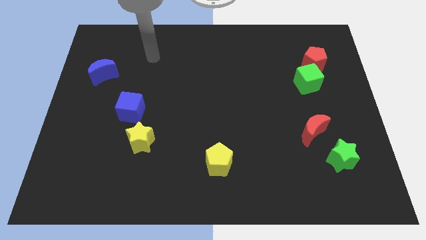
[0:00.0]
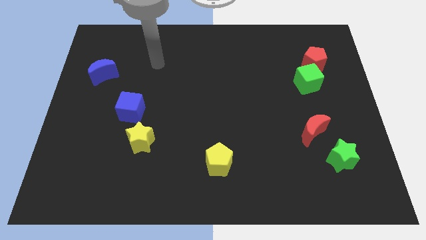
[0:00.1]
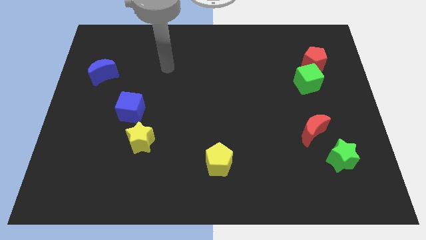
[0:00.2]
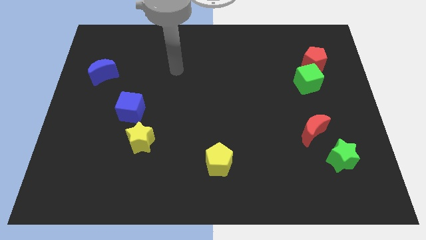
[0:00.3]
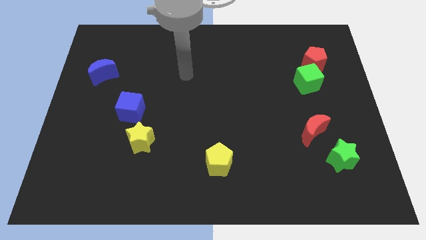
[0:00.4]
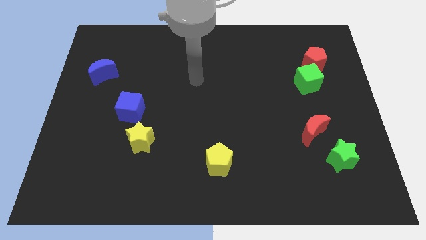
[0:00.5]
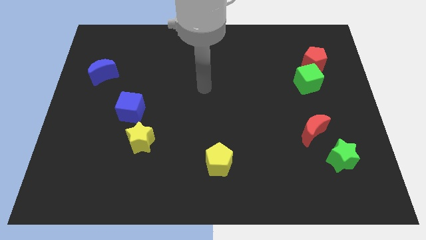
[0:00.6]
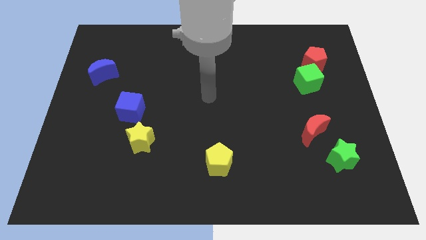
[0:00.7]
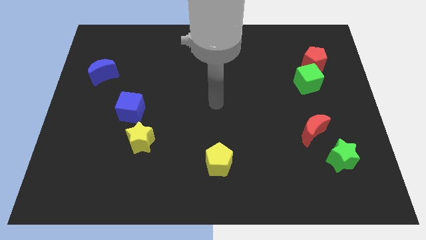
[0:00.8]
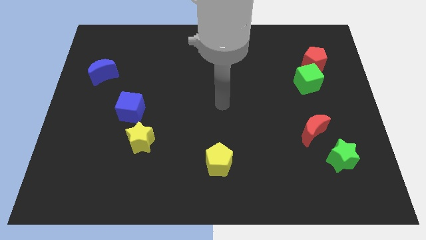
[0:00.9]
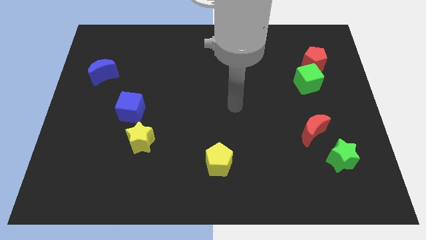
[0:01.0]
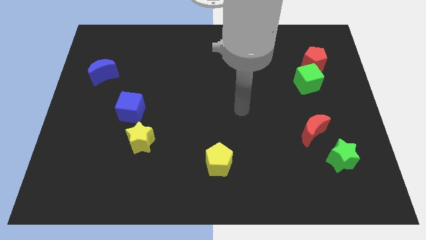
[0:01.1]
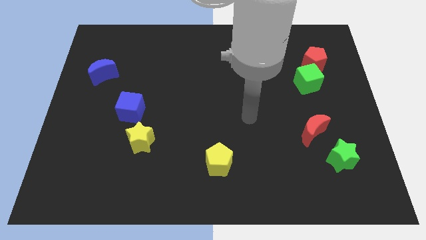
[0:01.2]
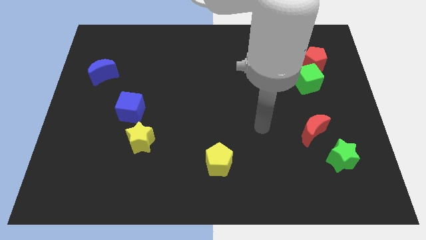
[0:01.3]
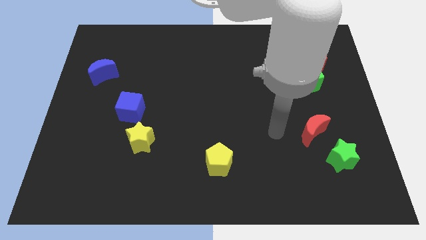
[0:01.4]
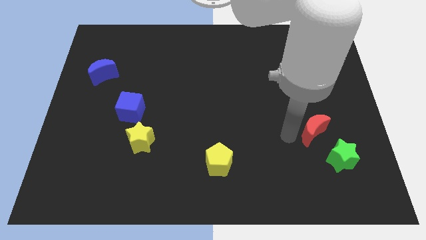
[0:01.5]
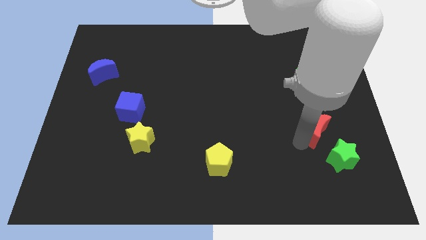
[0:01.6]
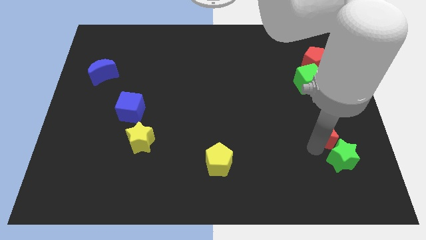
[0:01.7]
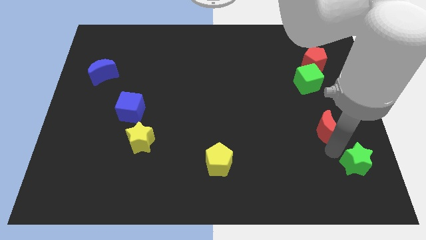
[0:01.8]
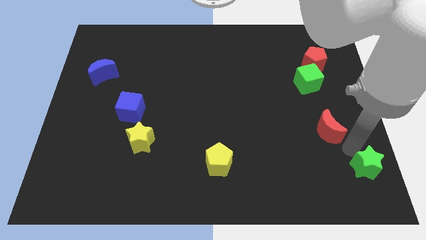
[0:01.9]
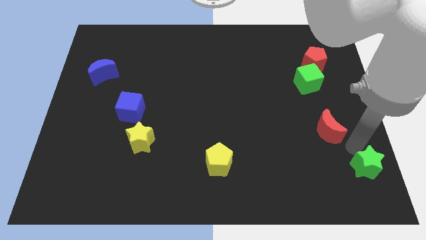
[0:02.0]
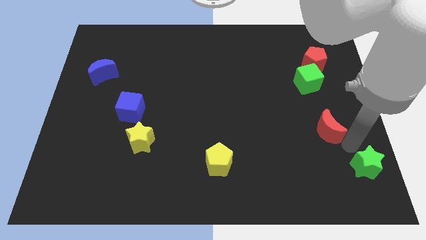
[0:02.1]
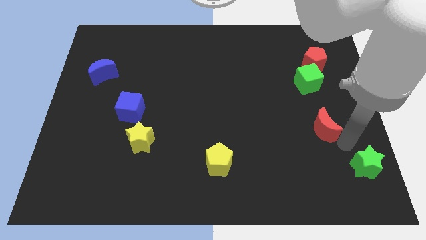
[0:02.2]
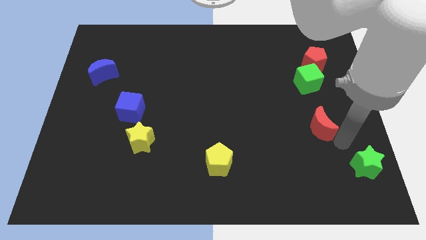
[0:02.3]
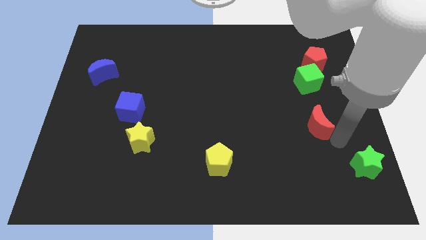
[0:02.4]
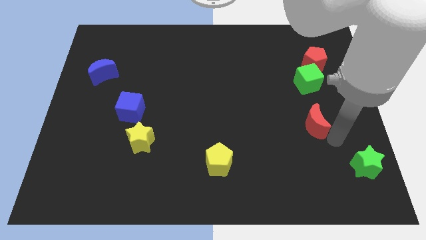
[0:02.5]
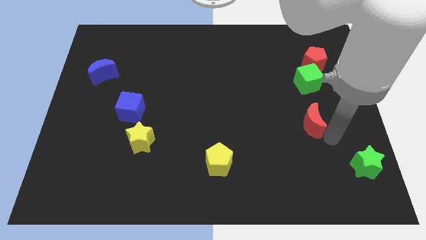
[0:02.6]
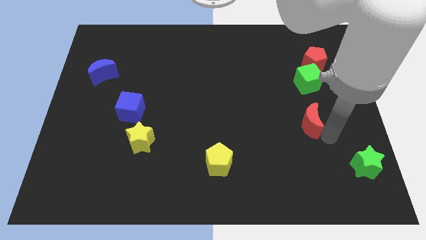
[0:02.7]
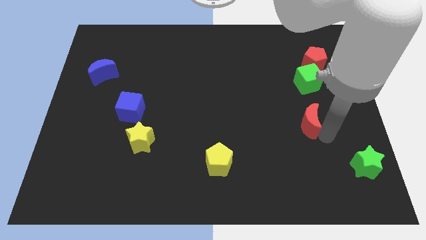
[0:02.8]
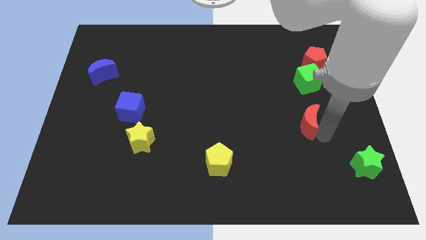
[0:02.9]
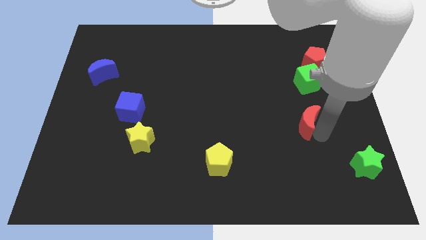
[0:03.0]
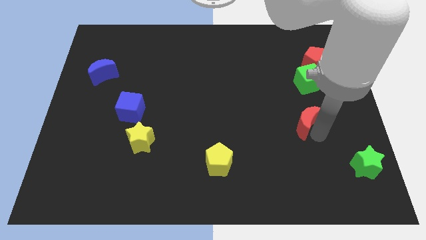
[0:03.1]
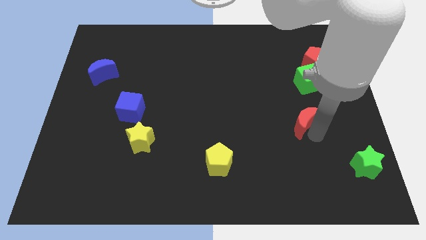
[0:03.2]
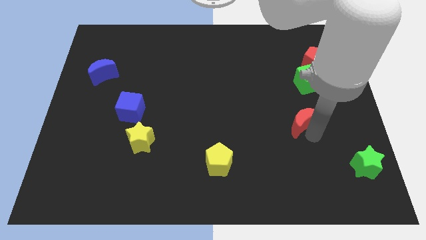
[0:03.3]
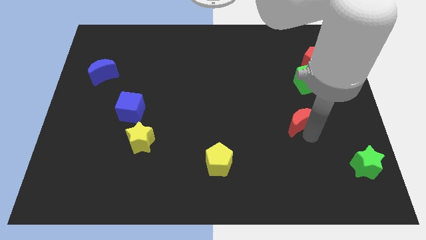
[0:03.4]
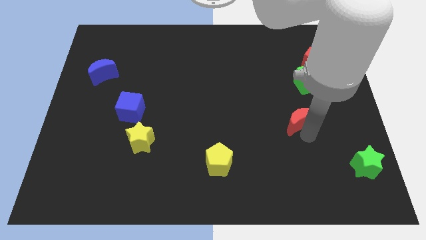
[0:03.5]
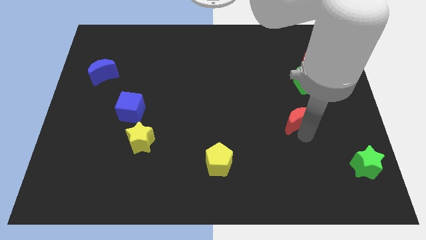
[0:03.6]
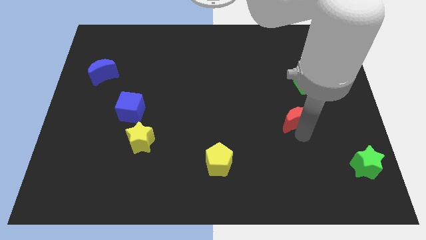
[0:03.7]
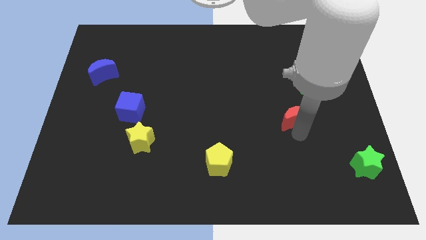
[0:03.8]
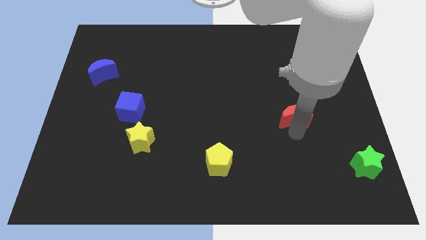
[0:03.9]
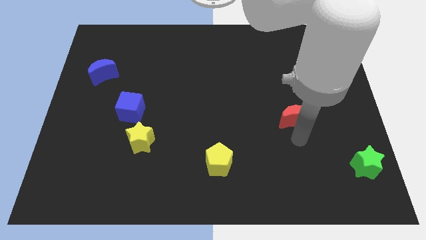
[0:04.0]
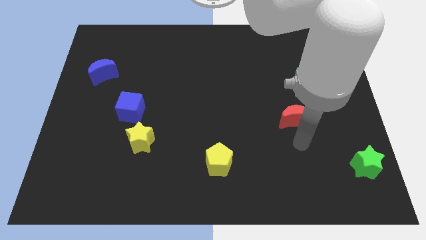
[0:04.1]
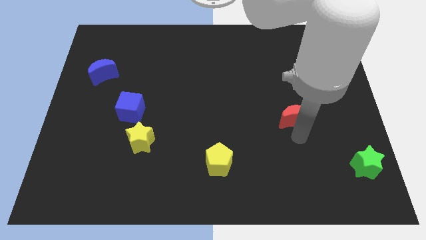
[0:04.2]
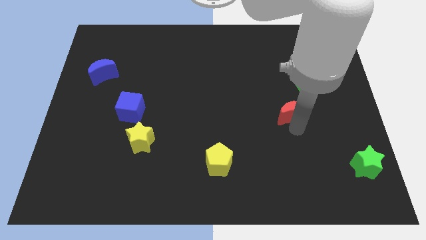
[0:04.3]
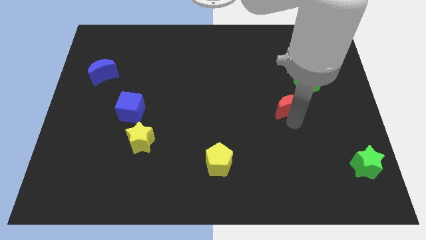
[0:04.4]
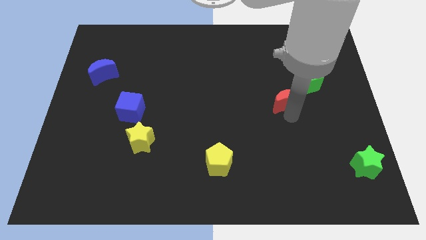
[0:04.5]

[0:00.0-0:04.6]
move the red moon slightly upwards

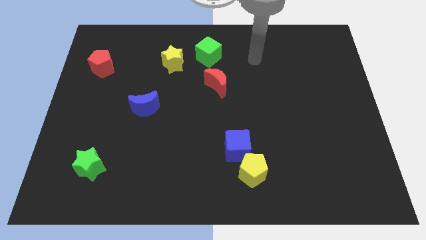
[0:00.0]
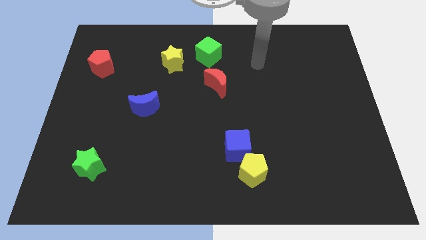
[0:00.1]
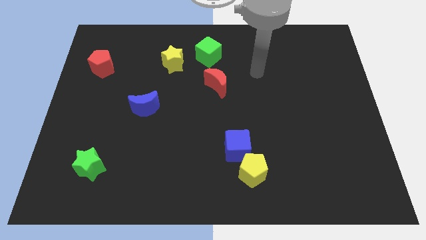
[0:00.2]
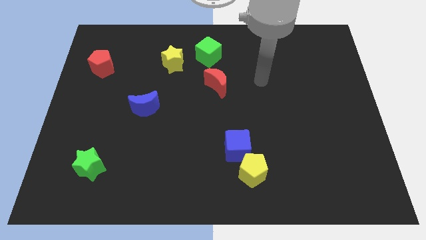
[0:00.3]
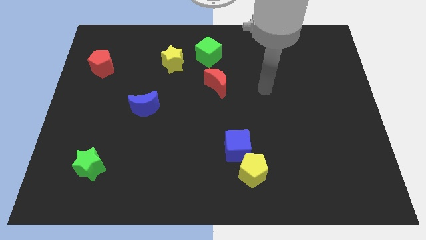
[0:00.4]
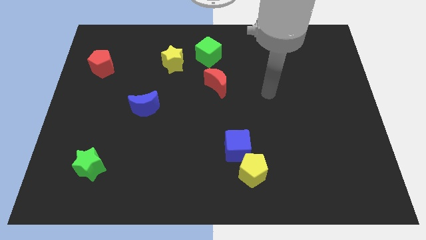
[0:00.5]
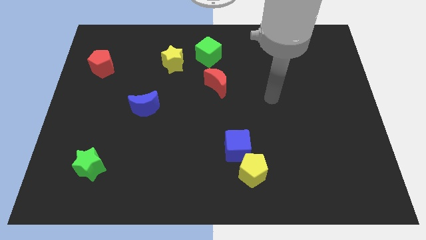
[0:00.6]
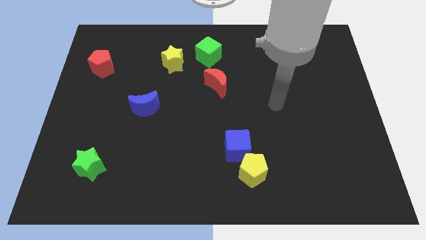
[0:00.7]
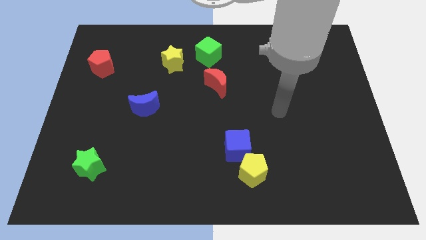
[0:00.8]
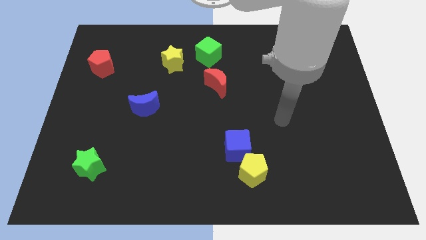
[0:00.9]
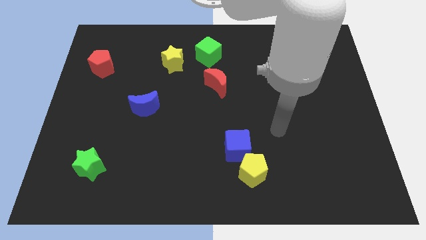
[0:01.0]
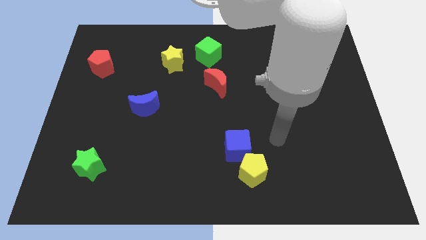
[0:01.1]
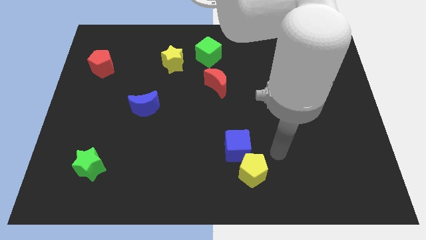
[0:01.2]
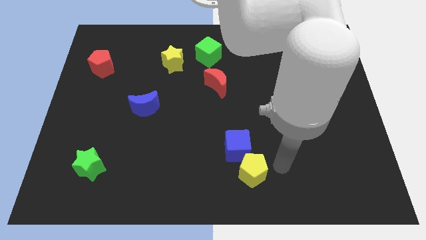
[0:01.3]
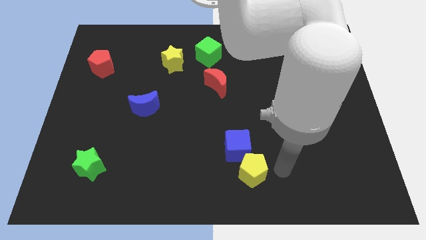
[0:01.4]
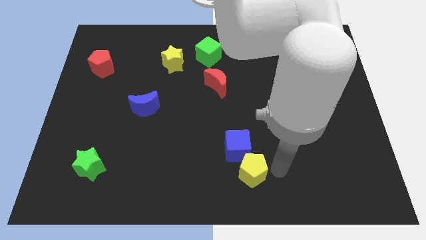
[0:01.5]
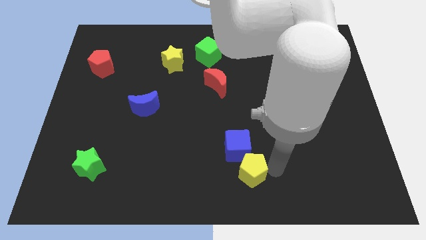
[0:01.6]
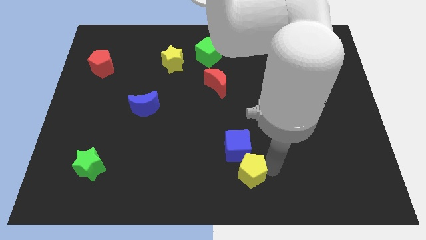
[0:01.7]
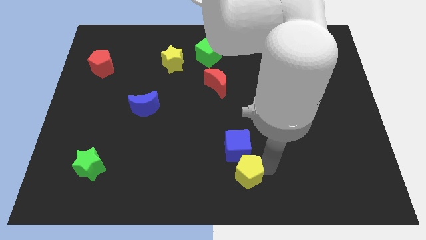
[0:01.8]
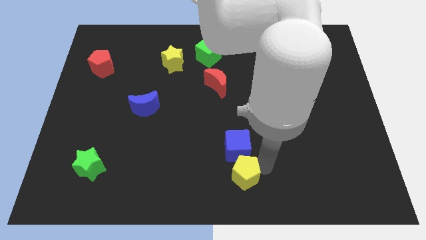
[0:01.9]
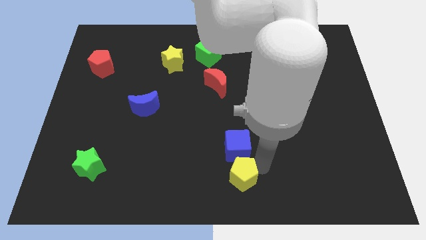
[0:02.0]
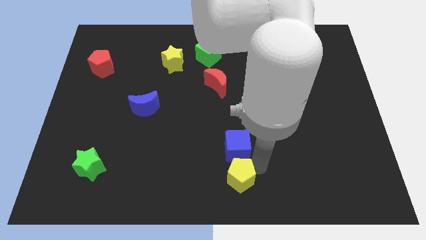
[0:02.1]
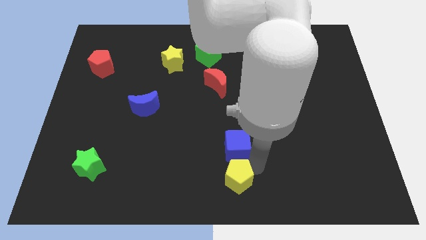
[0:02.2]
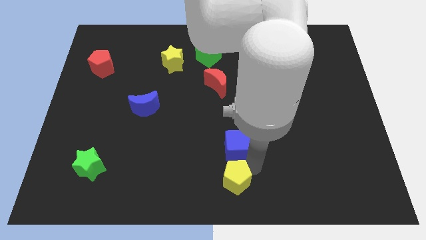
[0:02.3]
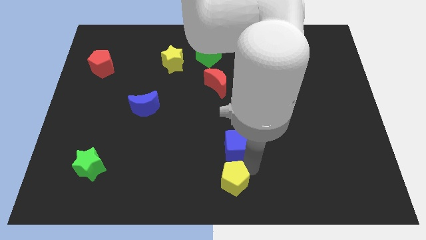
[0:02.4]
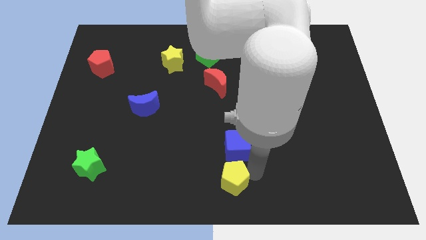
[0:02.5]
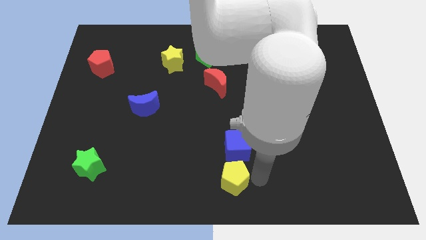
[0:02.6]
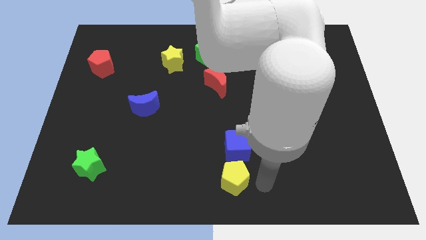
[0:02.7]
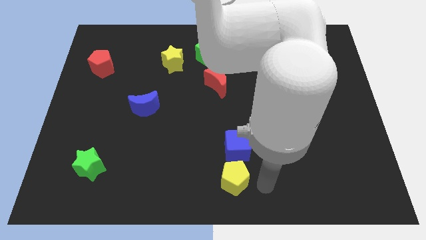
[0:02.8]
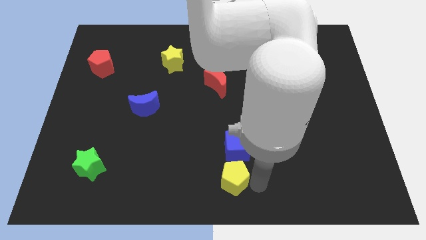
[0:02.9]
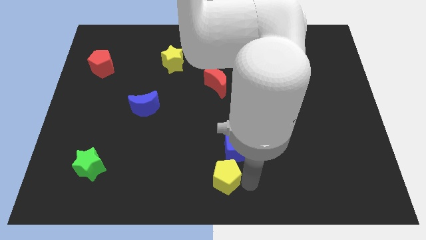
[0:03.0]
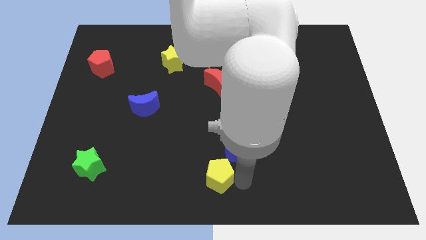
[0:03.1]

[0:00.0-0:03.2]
slide the yellow pentagon to the left a little

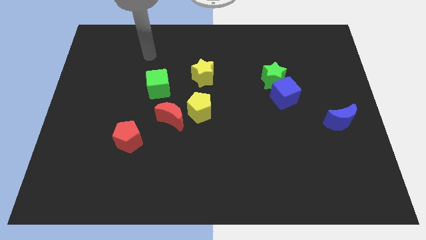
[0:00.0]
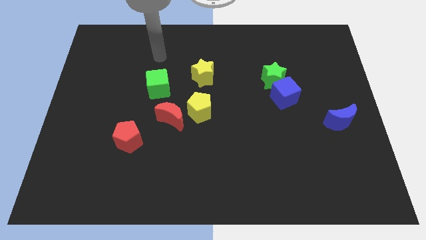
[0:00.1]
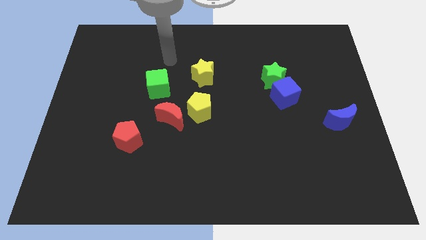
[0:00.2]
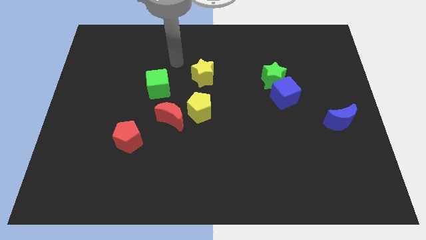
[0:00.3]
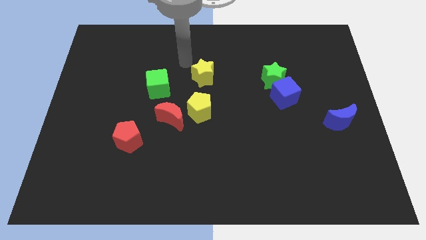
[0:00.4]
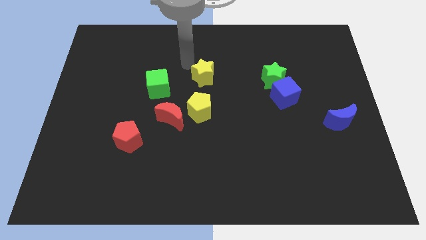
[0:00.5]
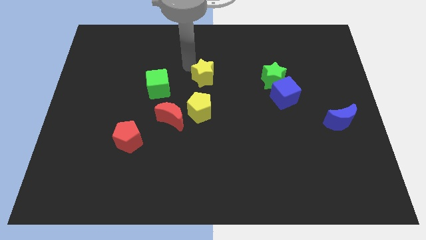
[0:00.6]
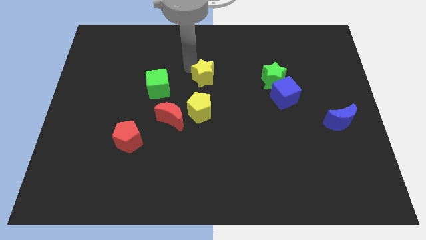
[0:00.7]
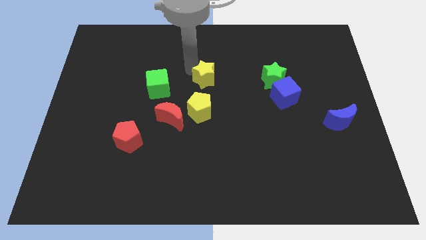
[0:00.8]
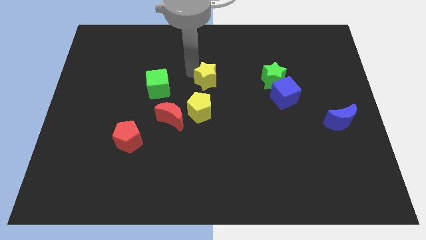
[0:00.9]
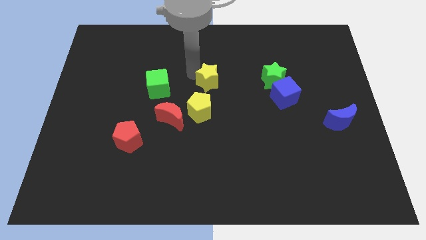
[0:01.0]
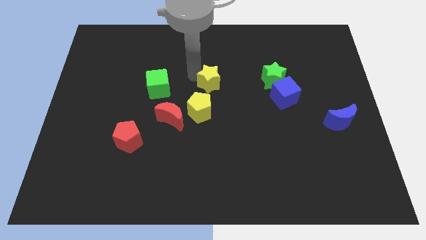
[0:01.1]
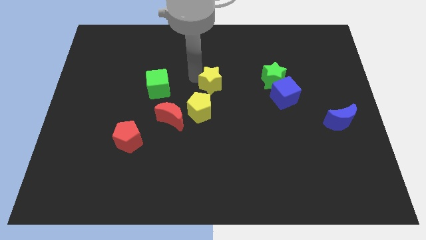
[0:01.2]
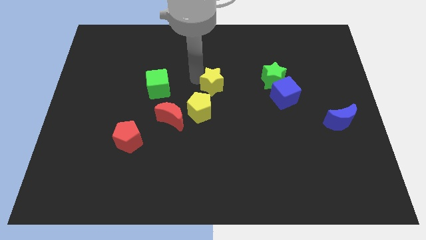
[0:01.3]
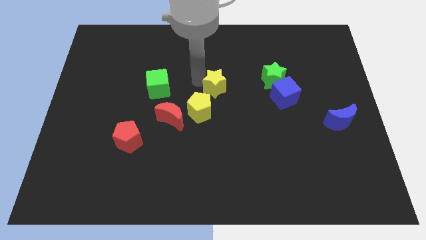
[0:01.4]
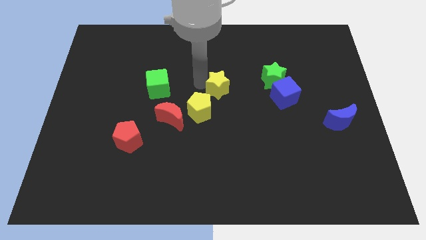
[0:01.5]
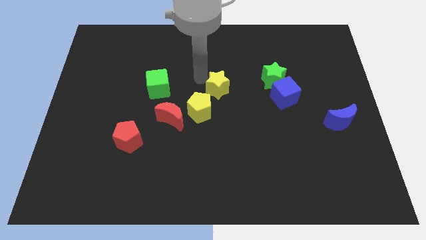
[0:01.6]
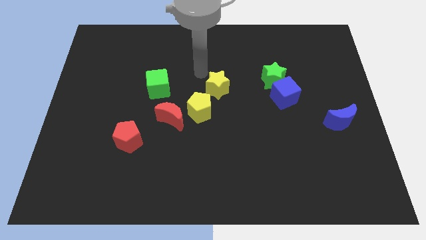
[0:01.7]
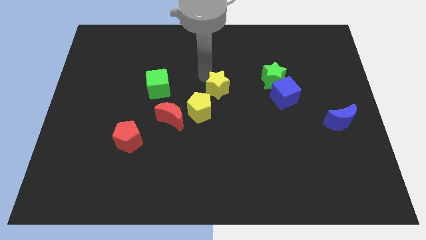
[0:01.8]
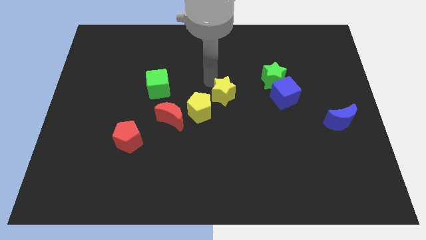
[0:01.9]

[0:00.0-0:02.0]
slightly push the yellow star downwards and then to the right
